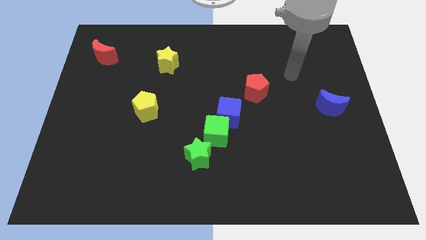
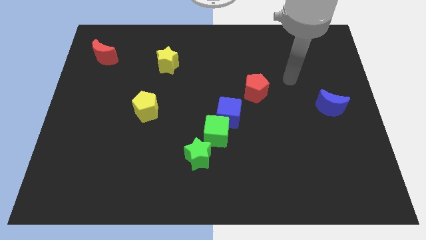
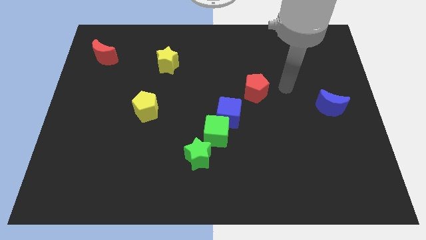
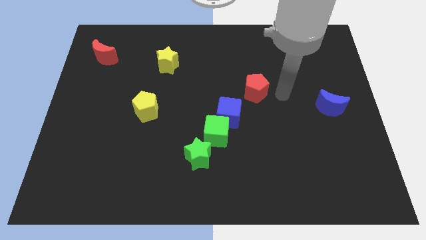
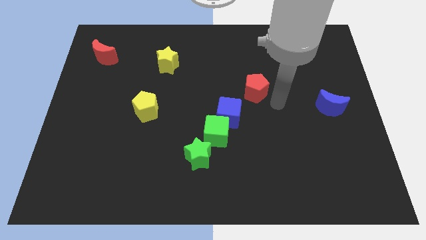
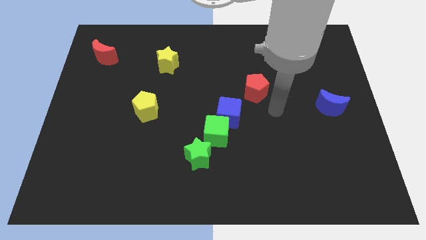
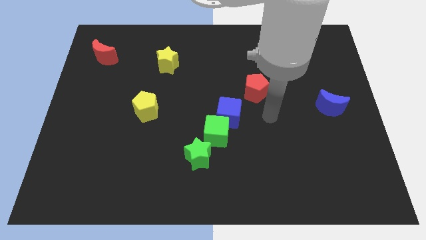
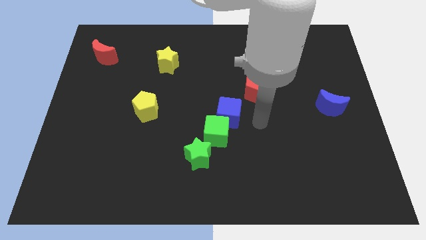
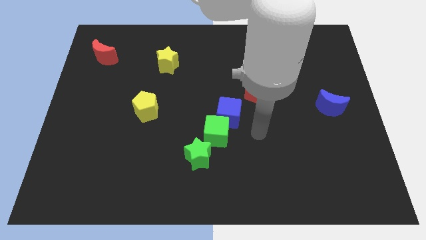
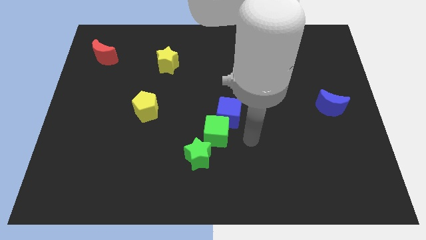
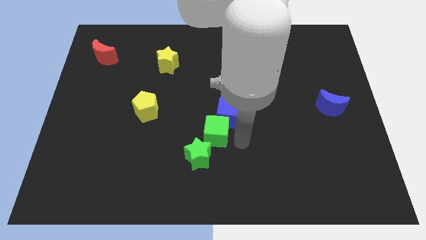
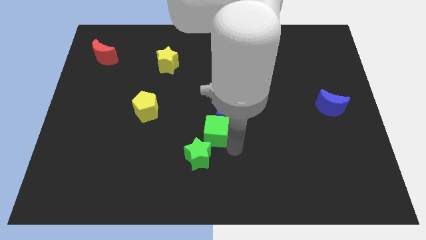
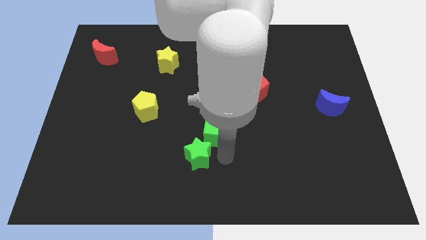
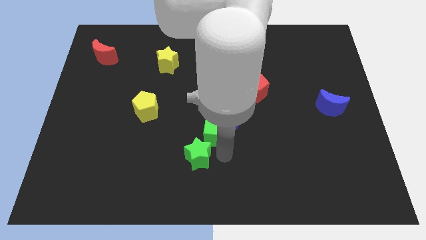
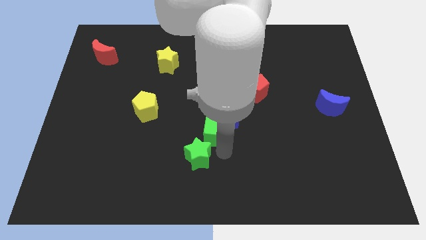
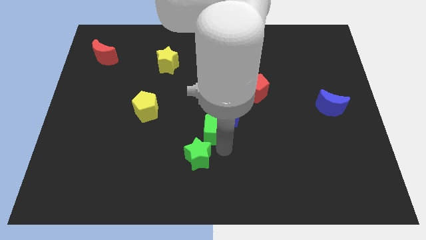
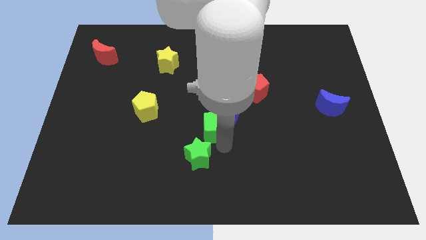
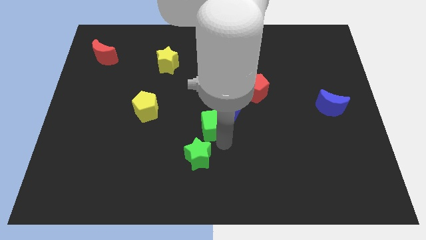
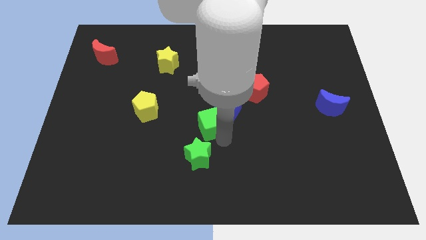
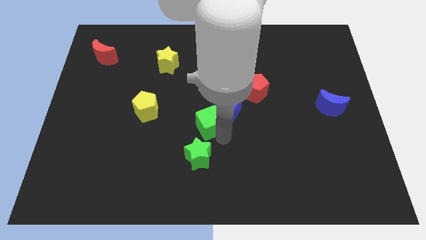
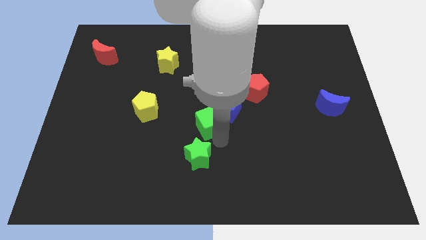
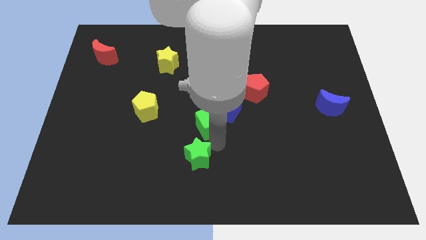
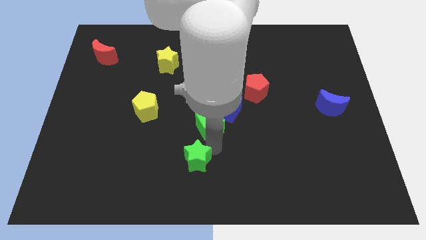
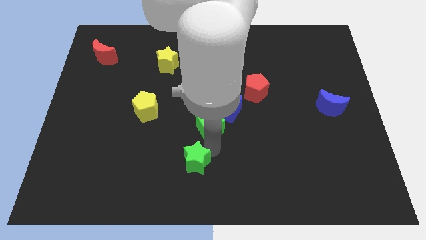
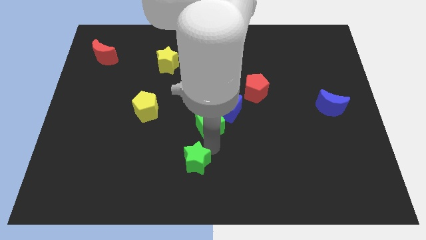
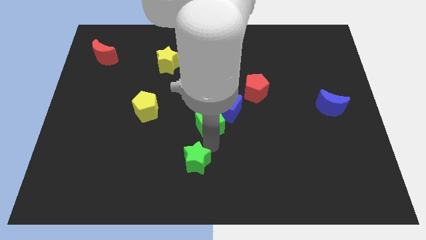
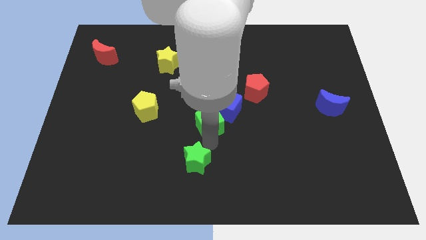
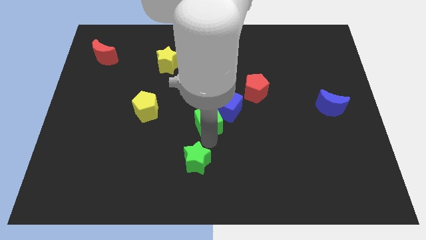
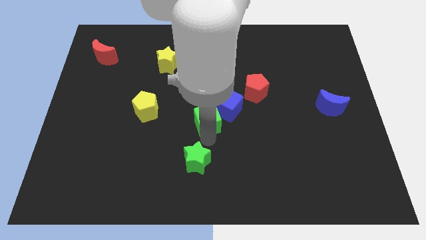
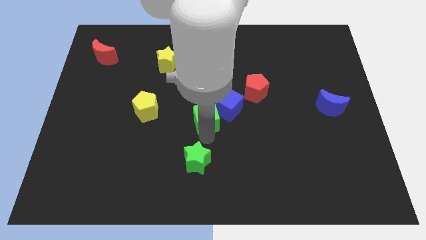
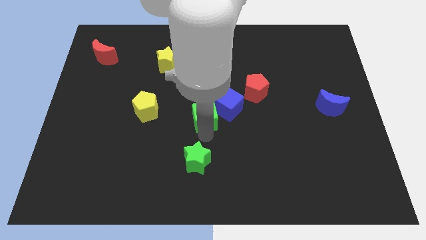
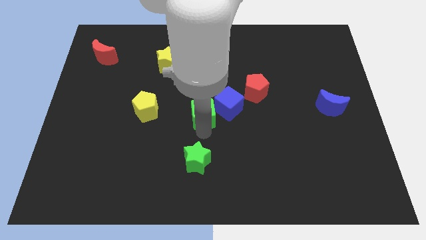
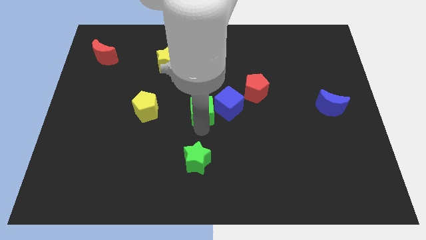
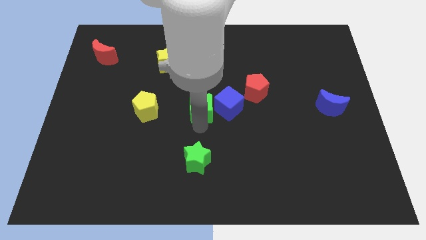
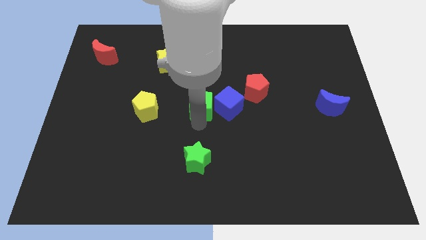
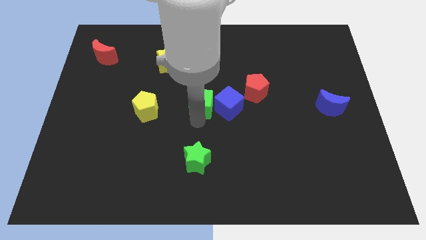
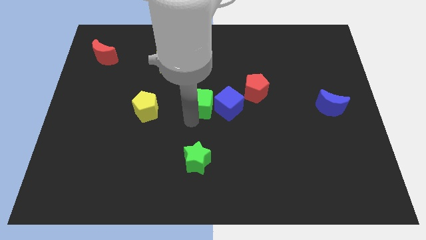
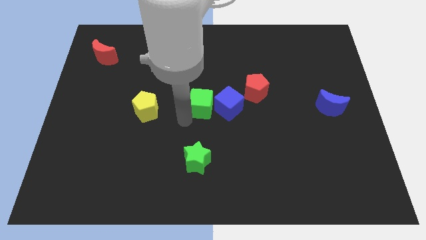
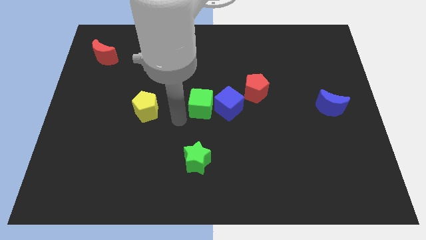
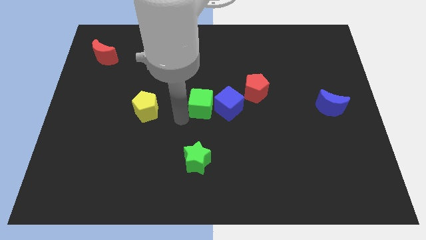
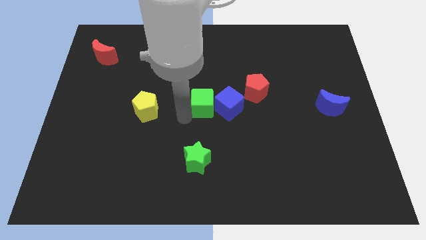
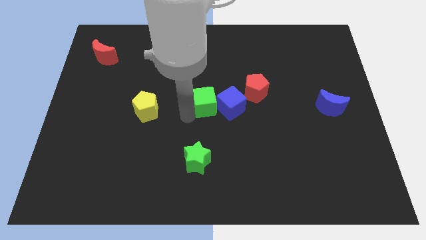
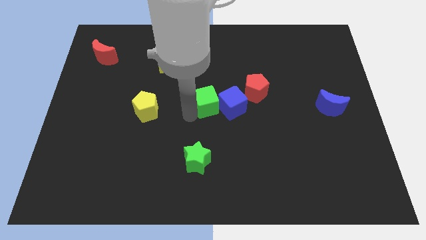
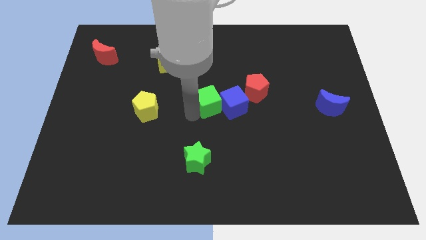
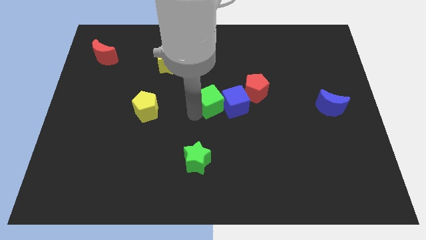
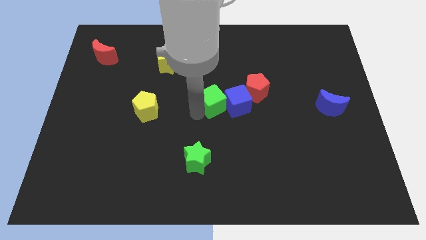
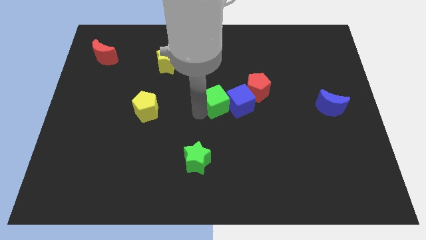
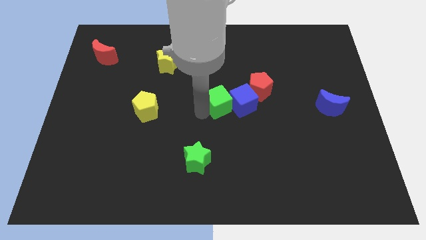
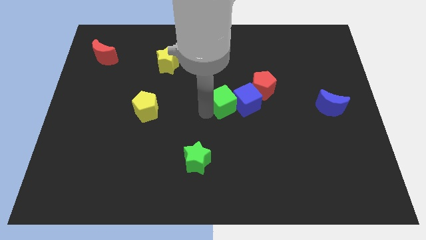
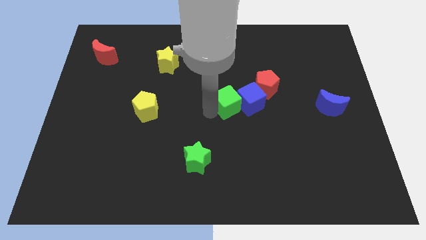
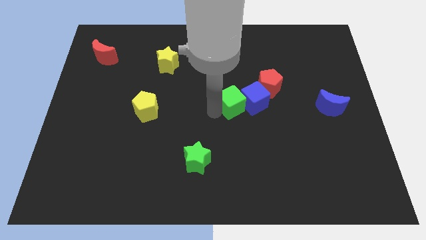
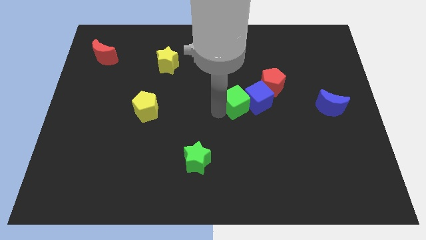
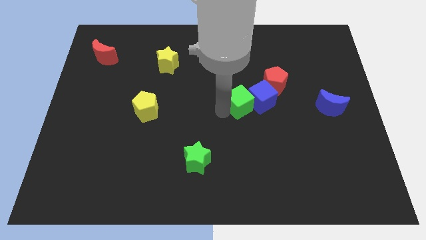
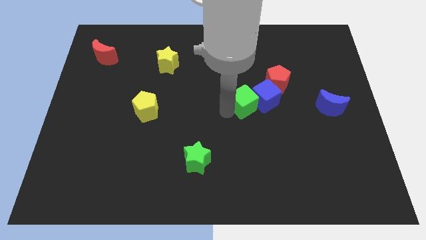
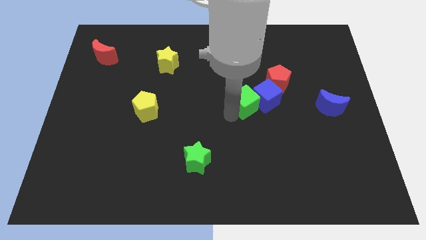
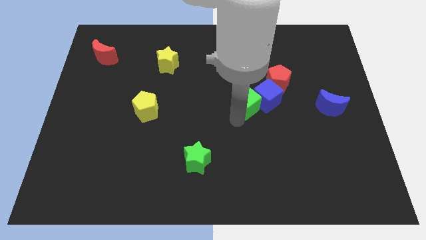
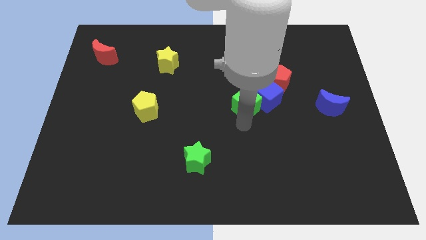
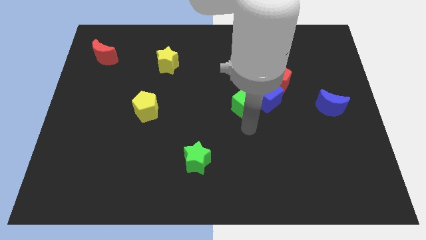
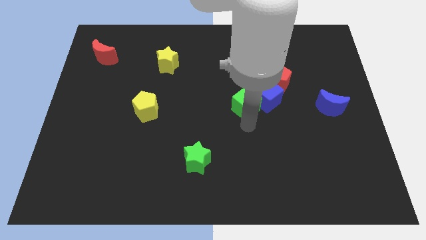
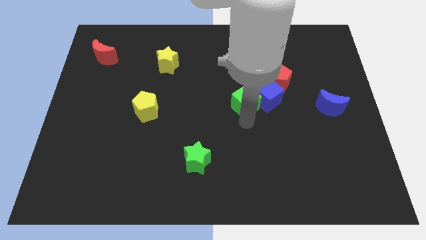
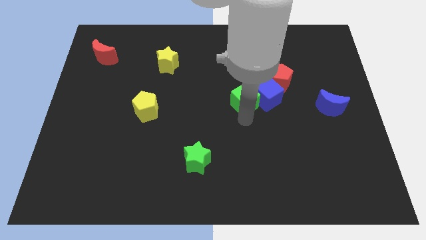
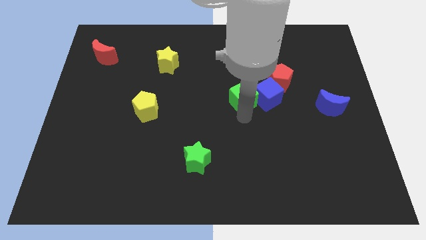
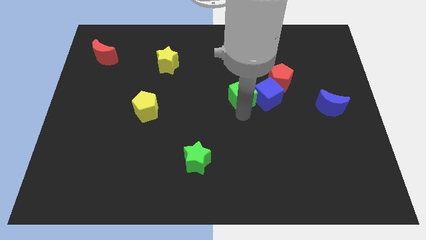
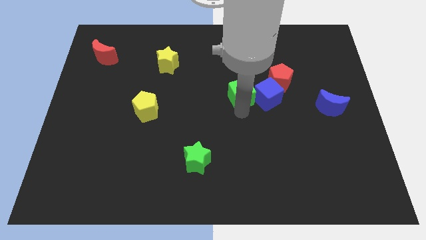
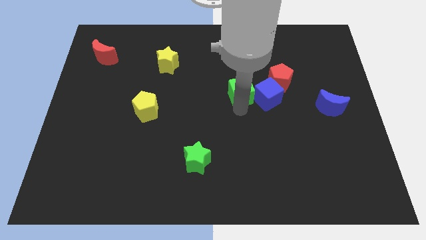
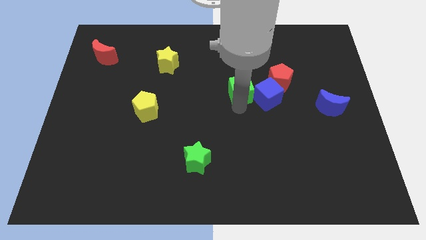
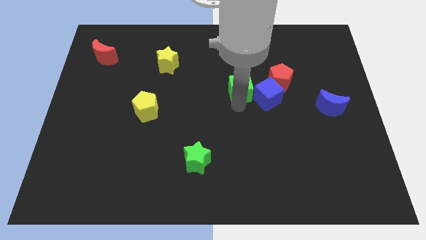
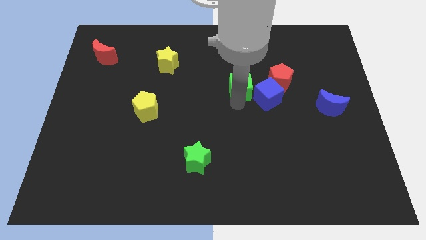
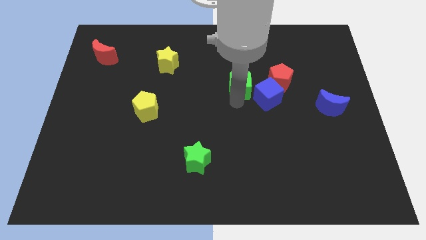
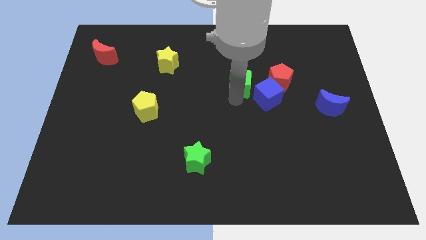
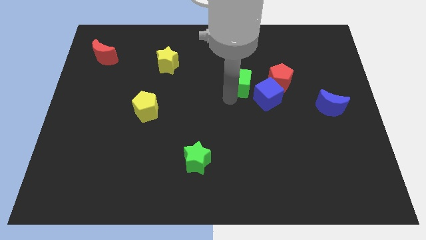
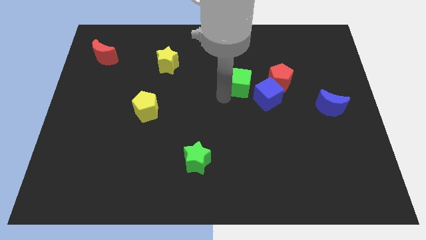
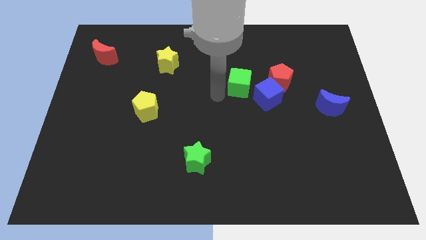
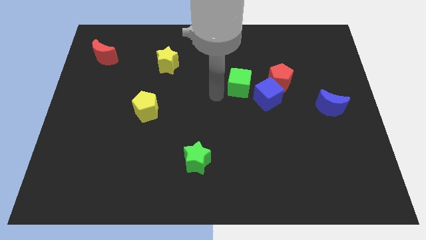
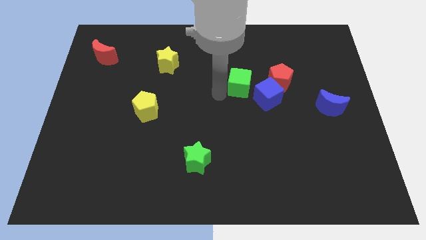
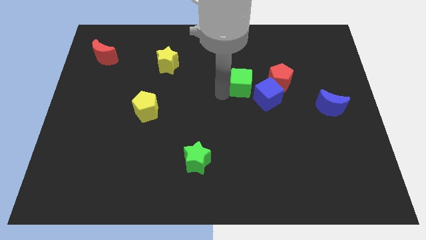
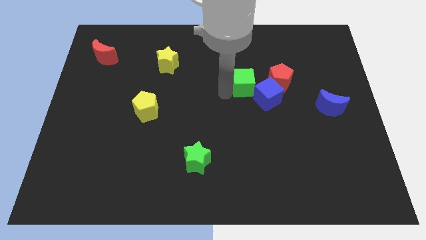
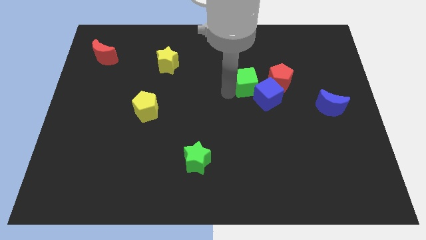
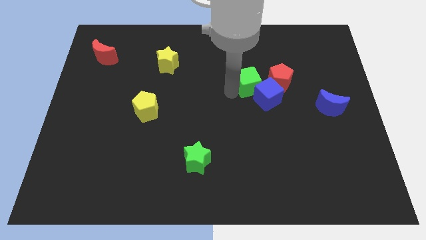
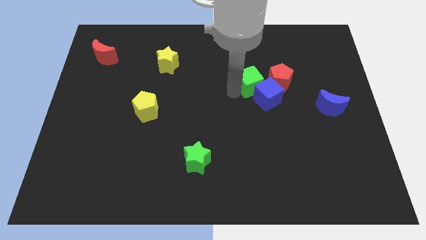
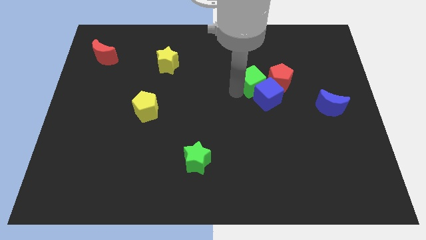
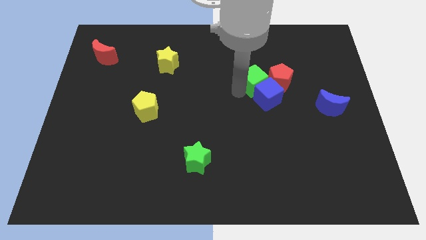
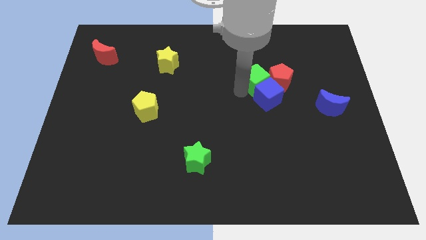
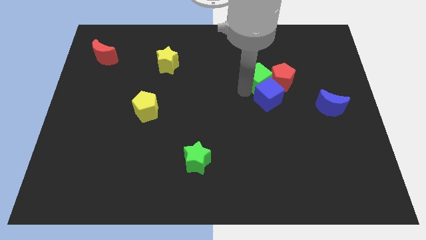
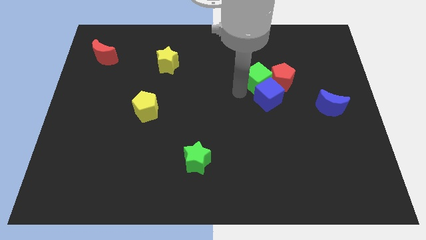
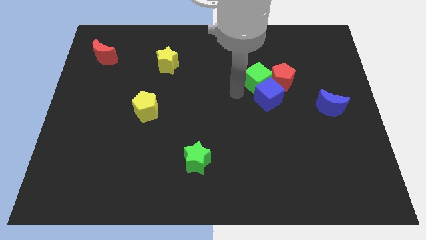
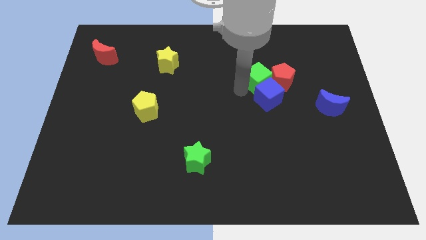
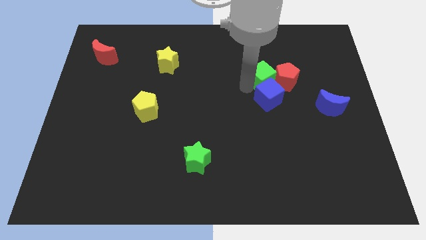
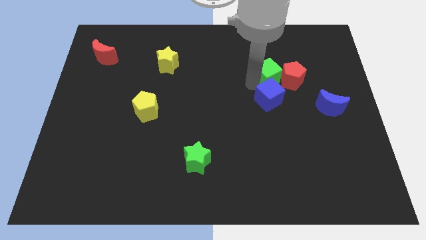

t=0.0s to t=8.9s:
slide the green cube upwards and then to the right
